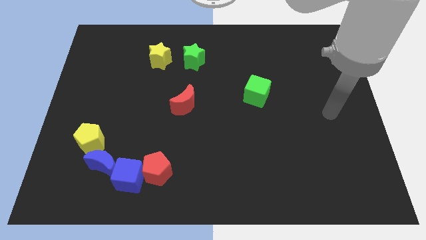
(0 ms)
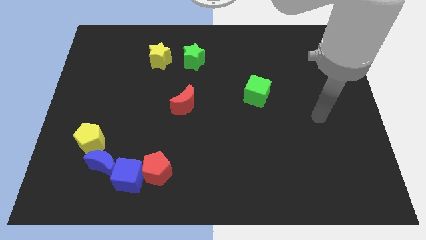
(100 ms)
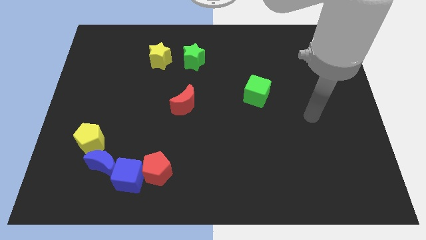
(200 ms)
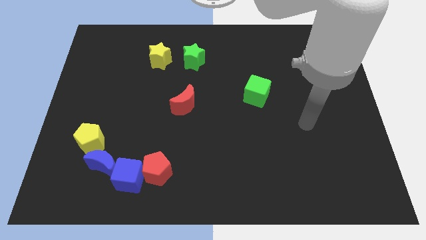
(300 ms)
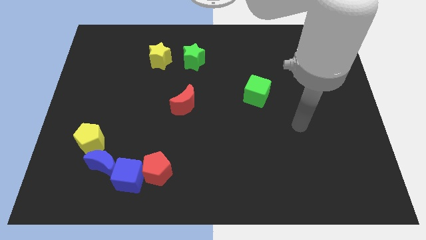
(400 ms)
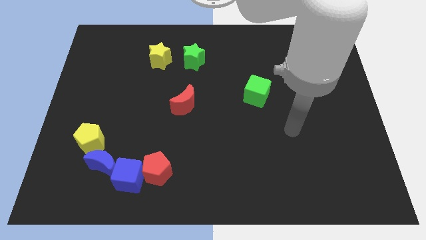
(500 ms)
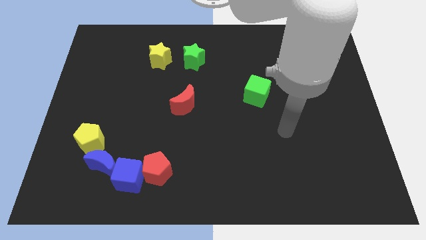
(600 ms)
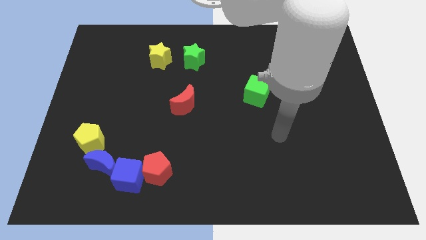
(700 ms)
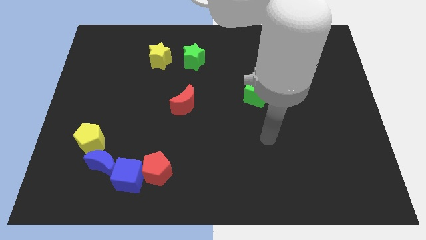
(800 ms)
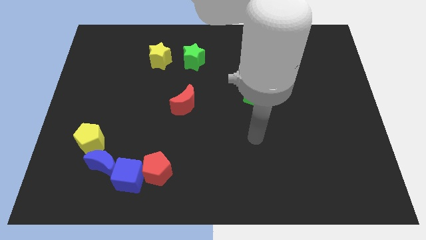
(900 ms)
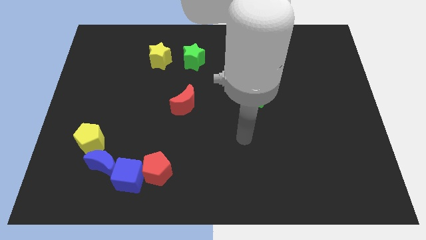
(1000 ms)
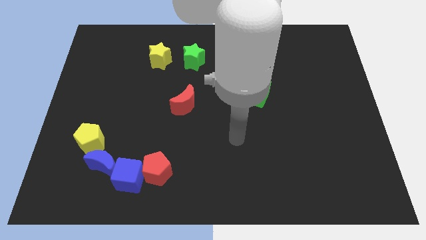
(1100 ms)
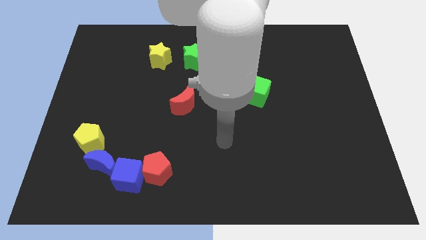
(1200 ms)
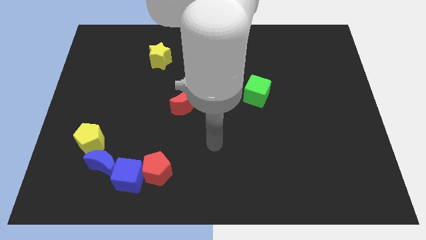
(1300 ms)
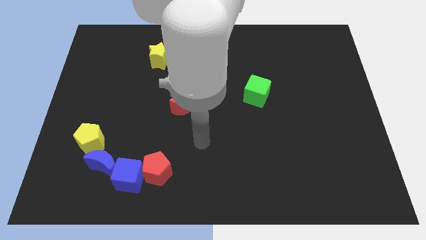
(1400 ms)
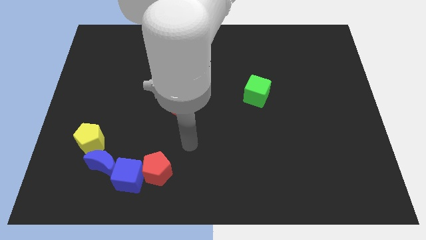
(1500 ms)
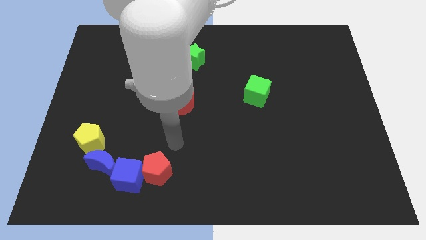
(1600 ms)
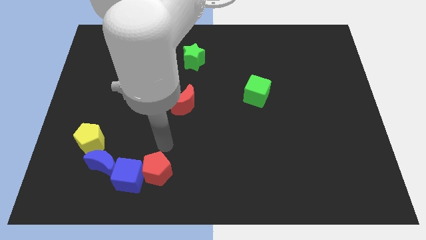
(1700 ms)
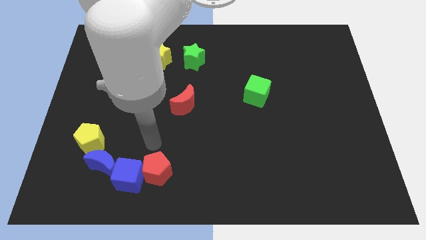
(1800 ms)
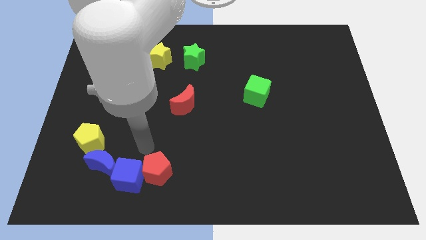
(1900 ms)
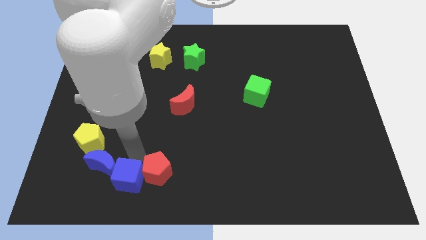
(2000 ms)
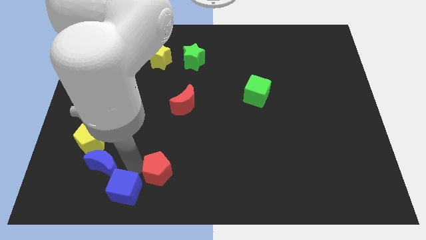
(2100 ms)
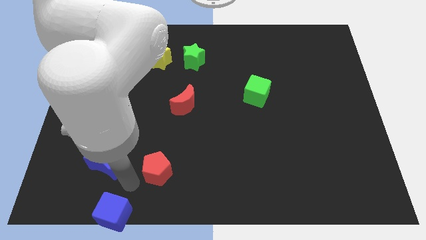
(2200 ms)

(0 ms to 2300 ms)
pull the red pentagon apart from the blue cube

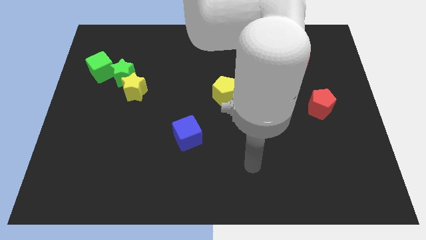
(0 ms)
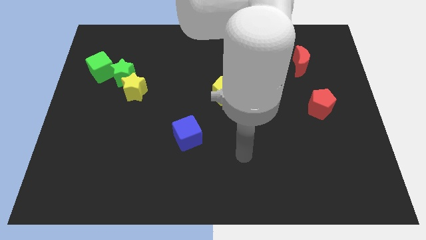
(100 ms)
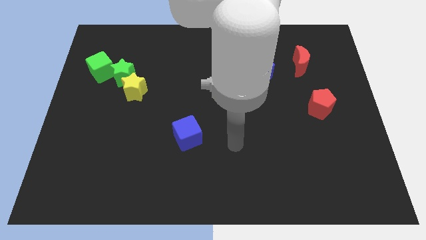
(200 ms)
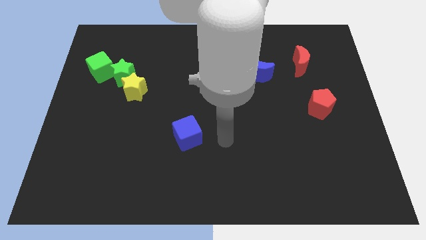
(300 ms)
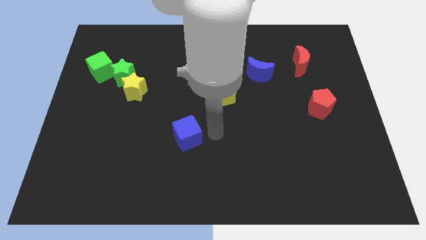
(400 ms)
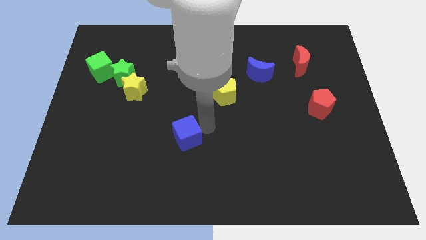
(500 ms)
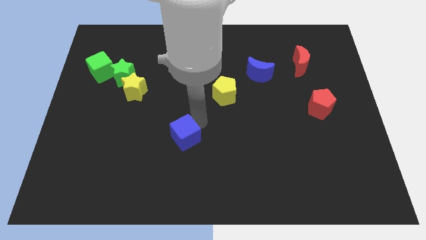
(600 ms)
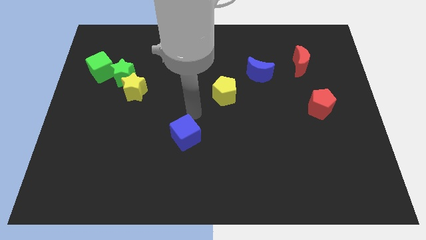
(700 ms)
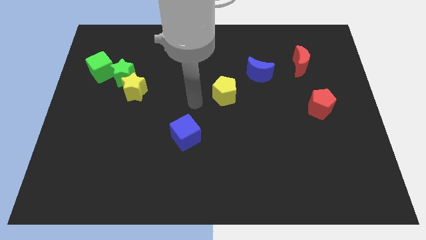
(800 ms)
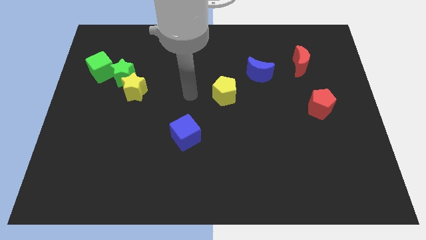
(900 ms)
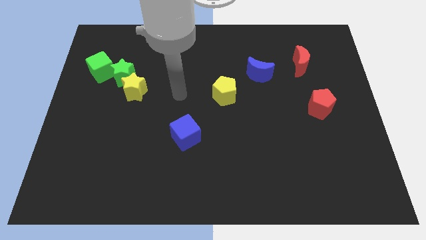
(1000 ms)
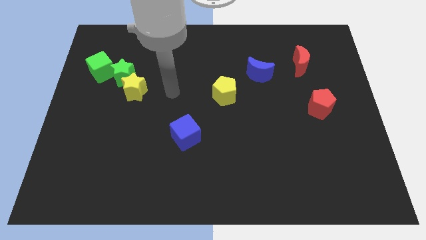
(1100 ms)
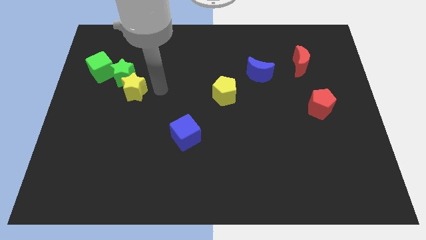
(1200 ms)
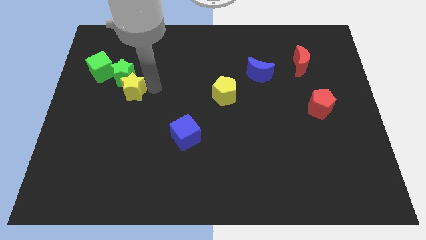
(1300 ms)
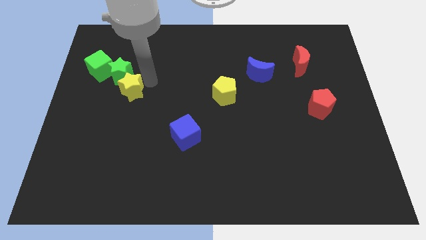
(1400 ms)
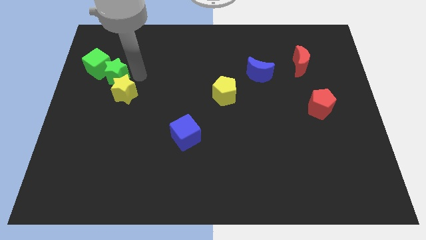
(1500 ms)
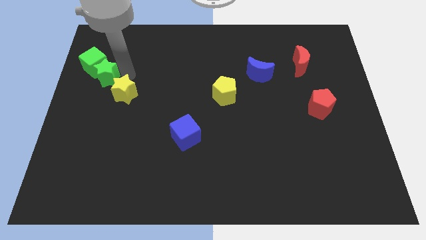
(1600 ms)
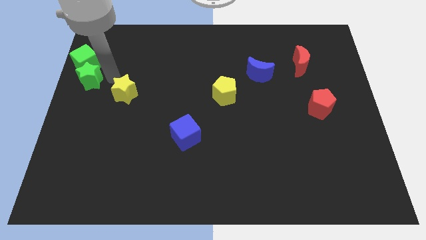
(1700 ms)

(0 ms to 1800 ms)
pull the yellow star apart from the green star

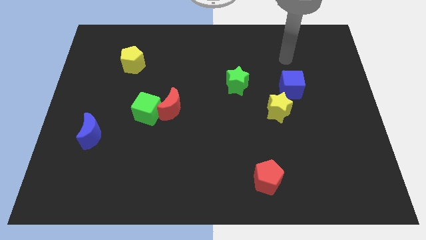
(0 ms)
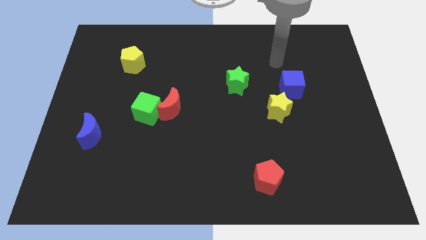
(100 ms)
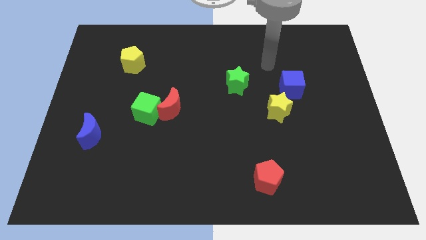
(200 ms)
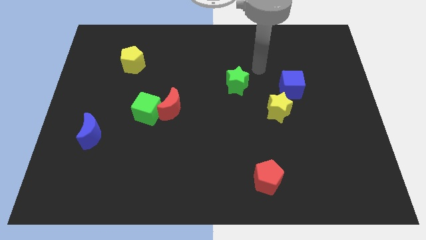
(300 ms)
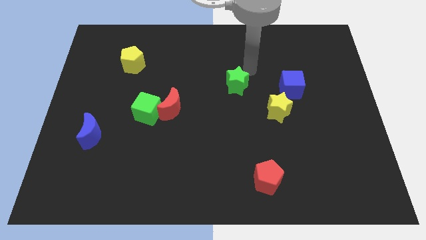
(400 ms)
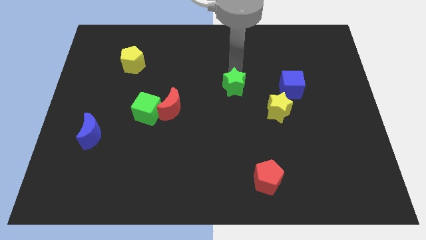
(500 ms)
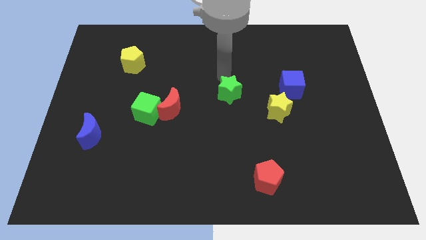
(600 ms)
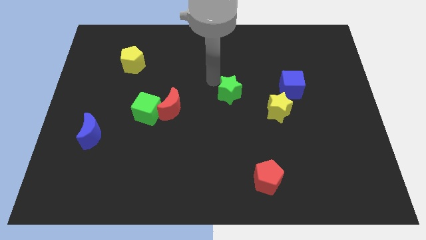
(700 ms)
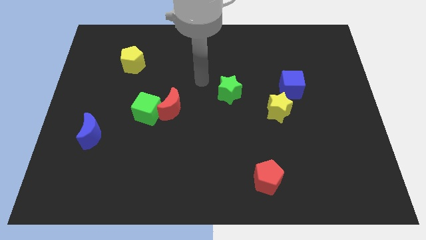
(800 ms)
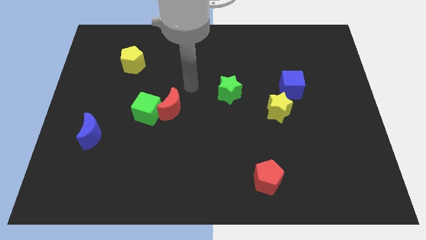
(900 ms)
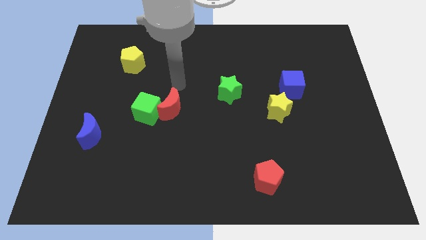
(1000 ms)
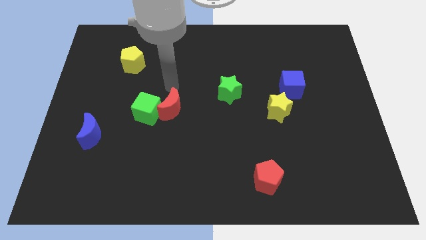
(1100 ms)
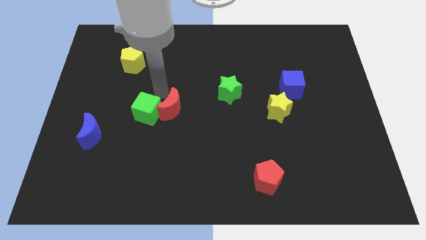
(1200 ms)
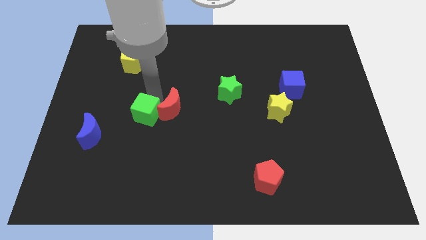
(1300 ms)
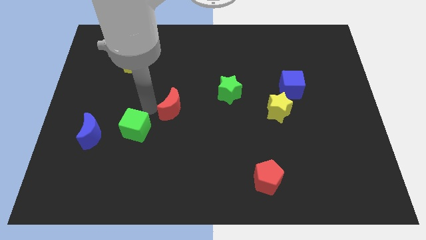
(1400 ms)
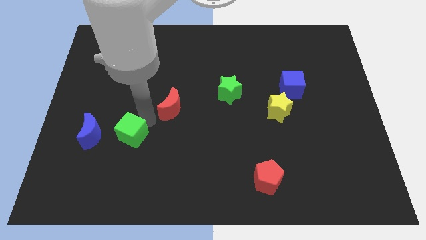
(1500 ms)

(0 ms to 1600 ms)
move the red moon away from the green cube

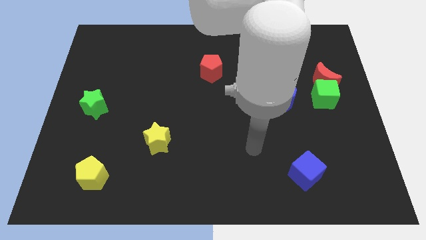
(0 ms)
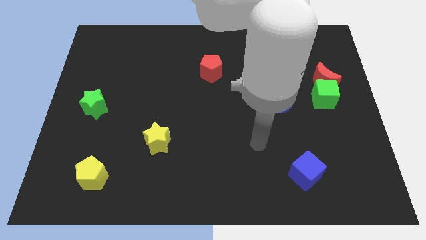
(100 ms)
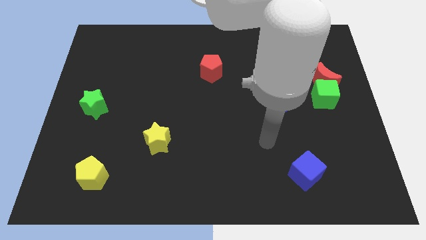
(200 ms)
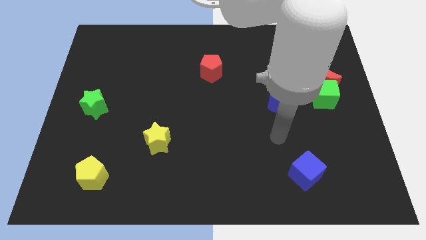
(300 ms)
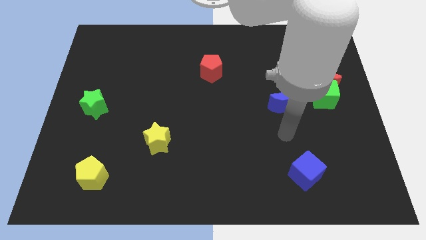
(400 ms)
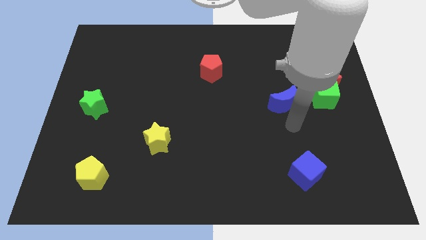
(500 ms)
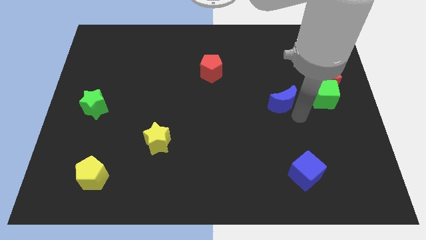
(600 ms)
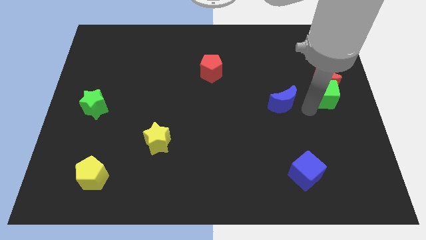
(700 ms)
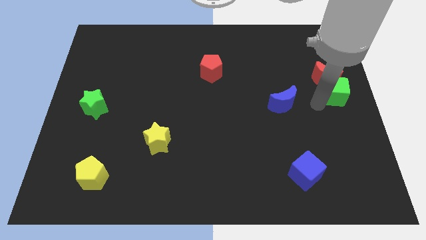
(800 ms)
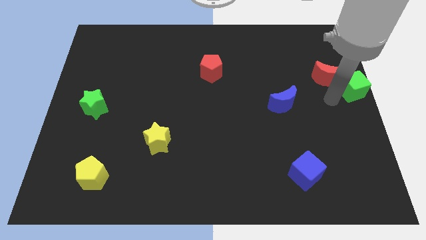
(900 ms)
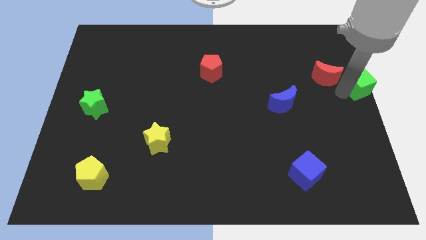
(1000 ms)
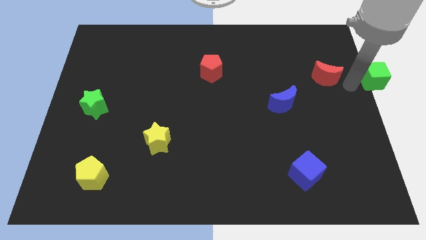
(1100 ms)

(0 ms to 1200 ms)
pull the red moon apart from the green cube

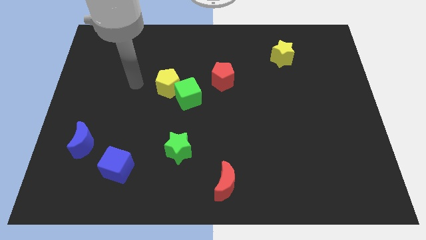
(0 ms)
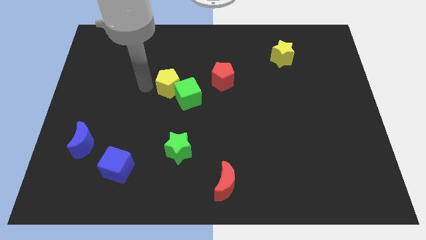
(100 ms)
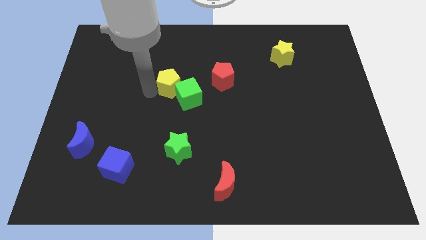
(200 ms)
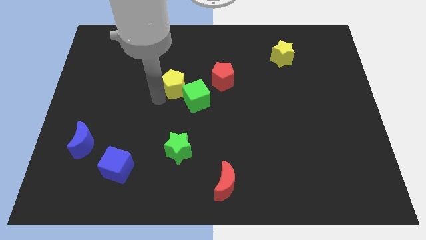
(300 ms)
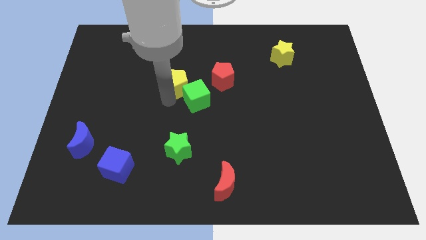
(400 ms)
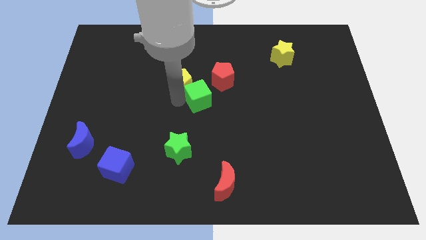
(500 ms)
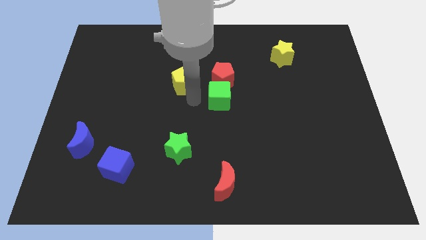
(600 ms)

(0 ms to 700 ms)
pull the yellow pentagon apart from the green cube

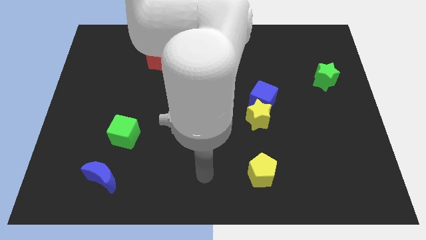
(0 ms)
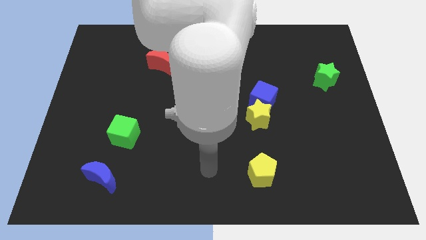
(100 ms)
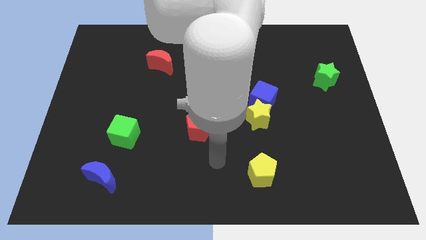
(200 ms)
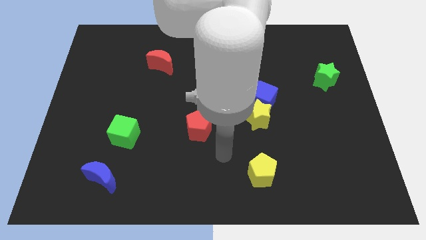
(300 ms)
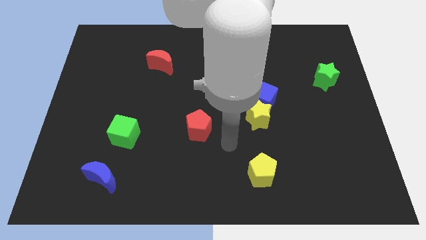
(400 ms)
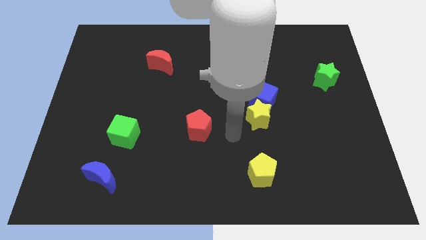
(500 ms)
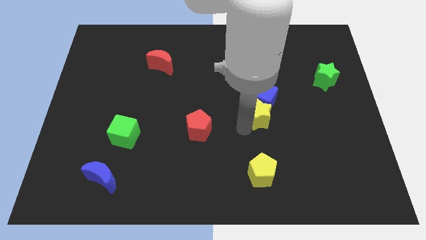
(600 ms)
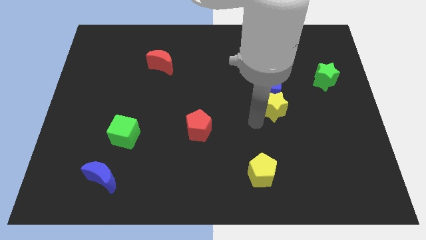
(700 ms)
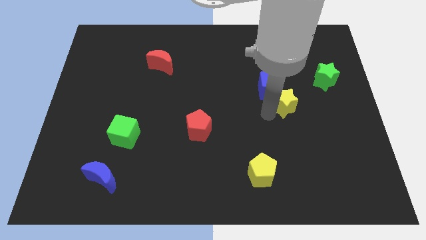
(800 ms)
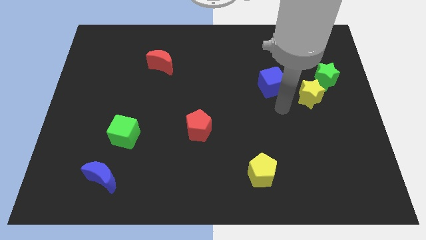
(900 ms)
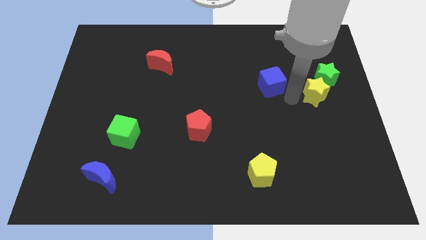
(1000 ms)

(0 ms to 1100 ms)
move the blue cube away from the yellow star

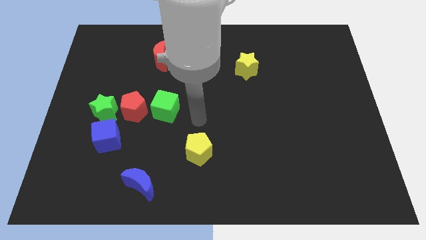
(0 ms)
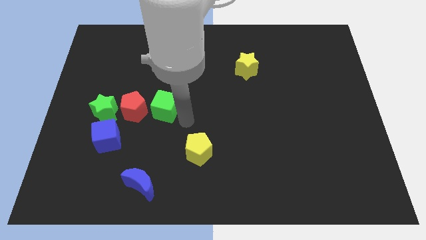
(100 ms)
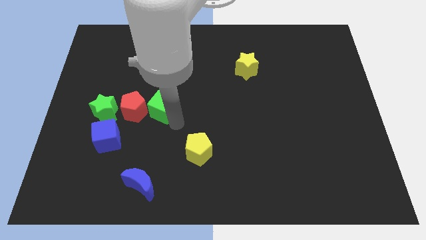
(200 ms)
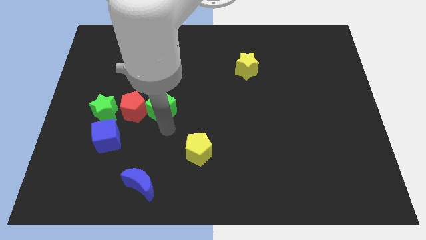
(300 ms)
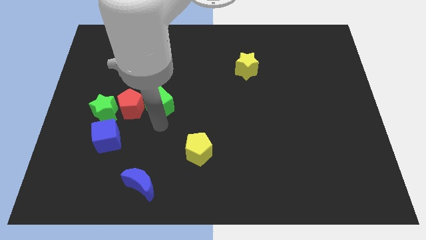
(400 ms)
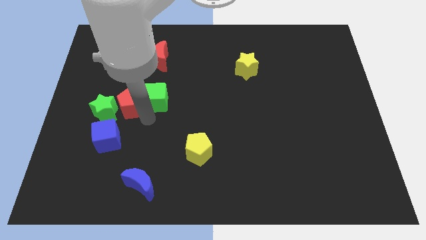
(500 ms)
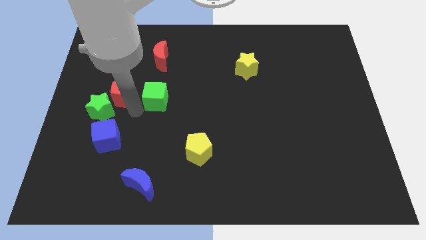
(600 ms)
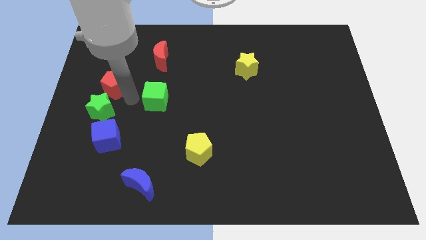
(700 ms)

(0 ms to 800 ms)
move the green cube away from the red pentagon
